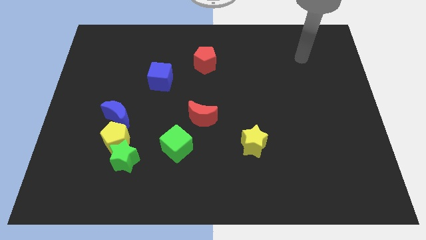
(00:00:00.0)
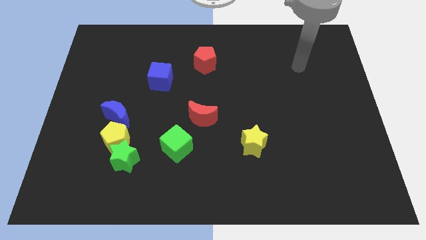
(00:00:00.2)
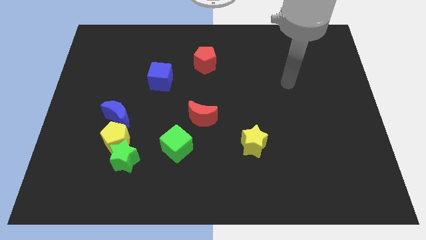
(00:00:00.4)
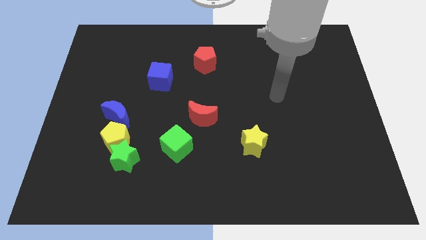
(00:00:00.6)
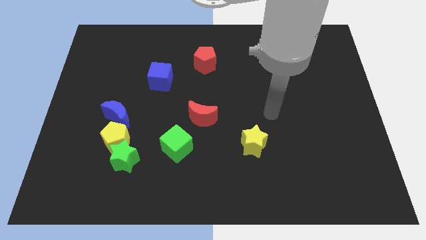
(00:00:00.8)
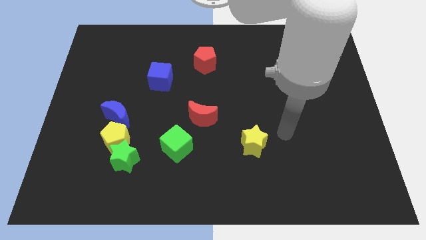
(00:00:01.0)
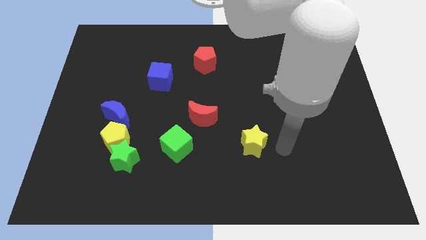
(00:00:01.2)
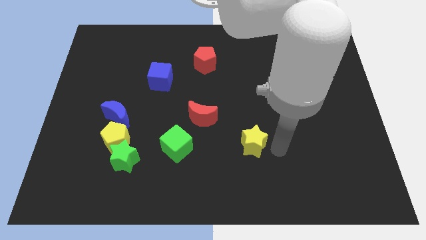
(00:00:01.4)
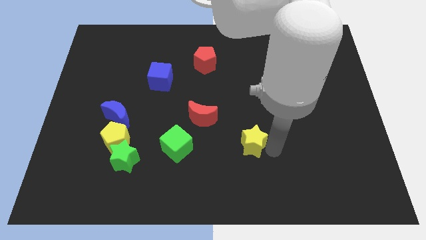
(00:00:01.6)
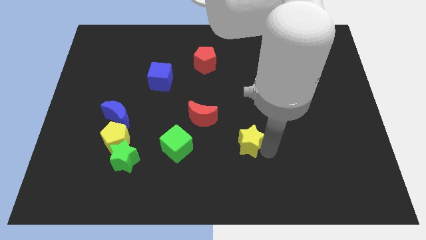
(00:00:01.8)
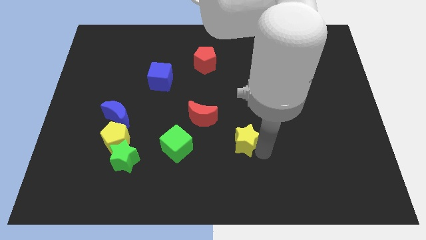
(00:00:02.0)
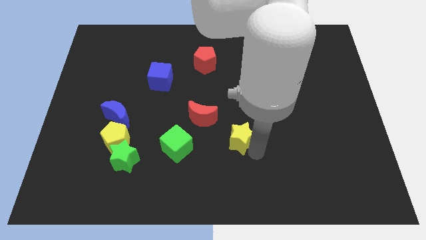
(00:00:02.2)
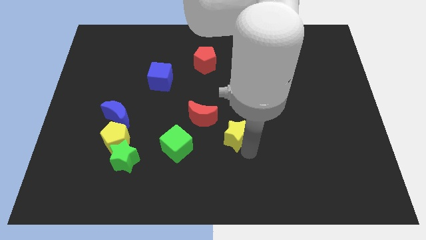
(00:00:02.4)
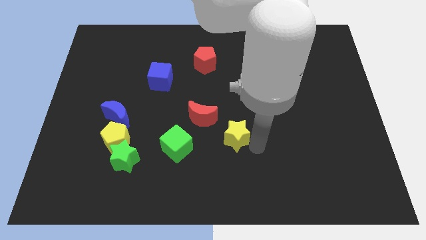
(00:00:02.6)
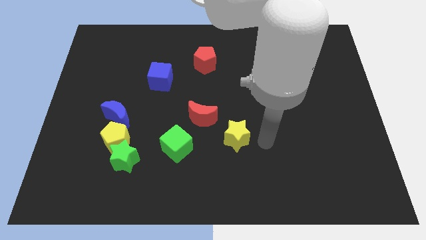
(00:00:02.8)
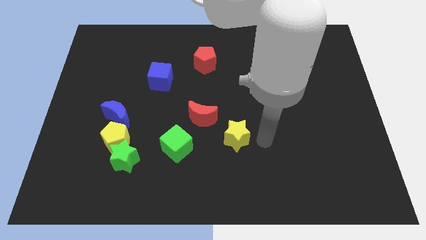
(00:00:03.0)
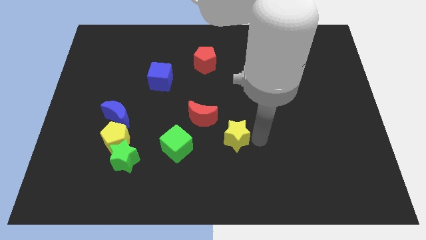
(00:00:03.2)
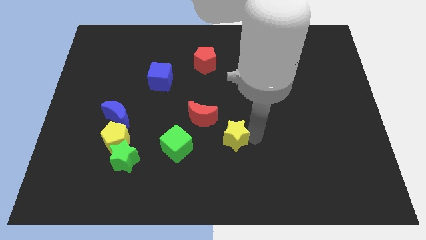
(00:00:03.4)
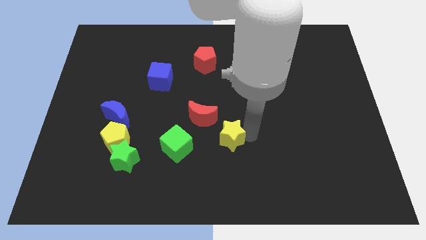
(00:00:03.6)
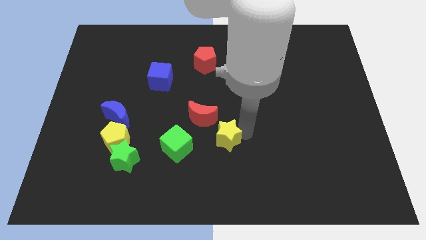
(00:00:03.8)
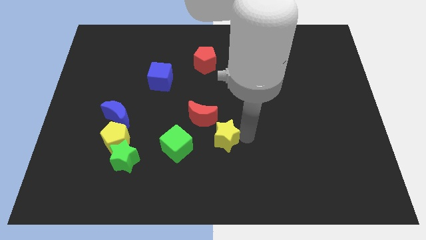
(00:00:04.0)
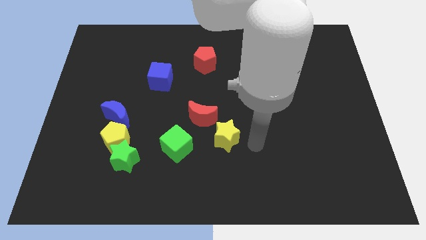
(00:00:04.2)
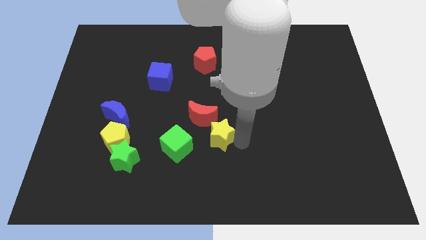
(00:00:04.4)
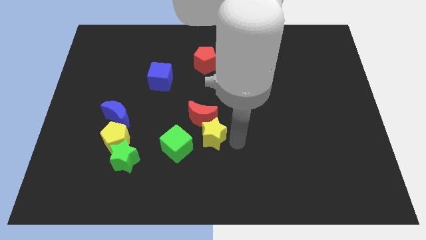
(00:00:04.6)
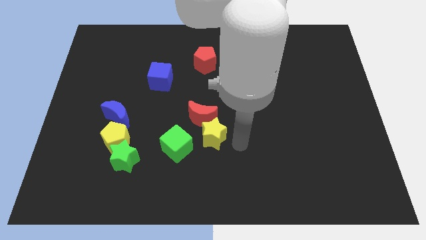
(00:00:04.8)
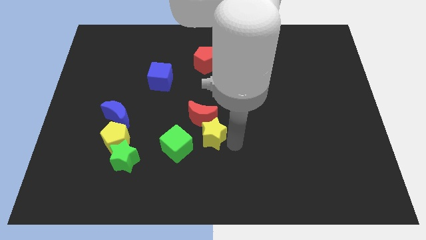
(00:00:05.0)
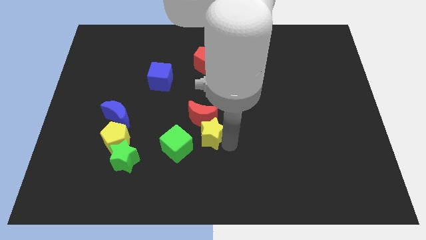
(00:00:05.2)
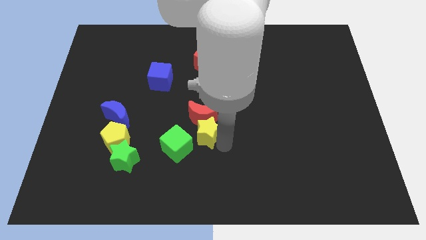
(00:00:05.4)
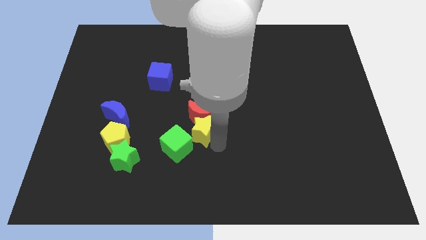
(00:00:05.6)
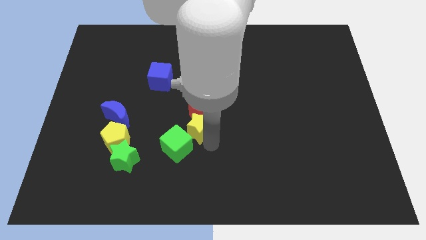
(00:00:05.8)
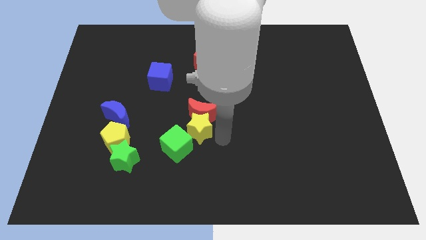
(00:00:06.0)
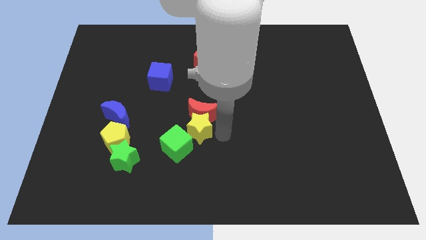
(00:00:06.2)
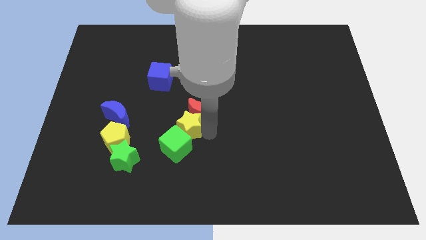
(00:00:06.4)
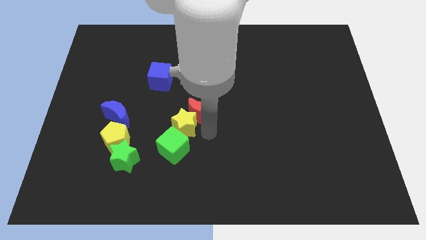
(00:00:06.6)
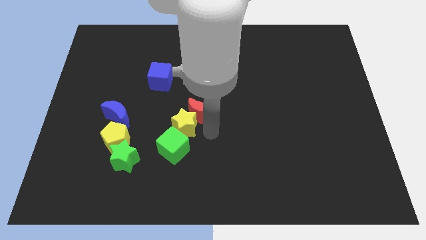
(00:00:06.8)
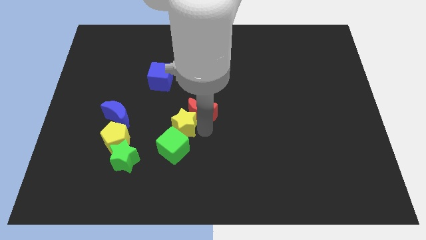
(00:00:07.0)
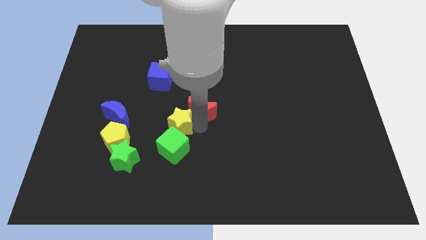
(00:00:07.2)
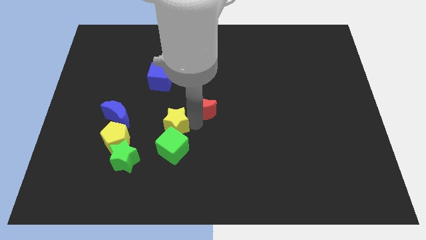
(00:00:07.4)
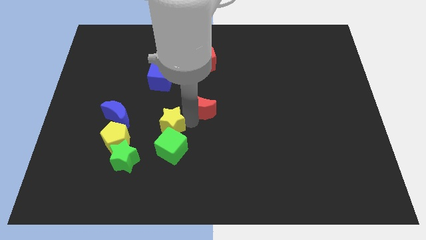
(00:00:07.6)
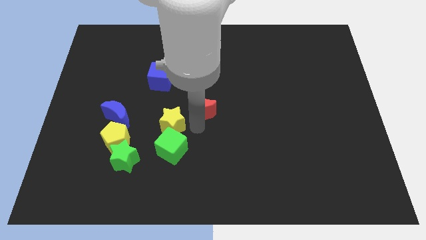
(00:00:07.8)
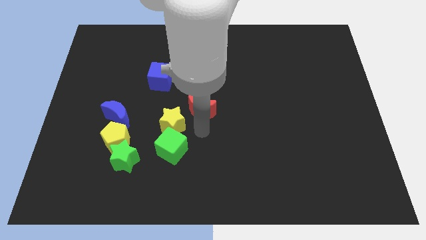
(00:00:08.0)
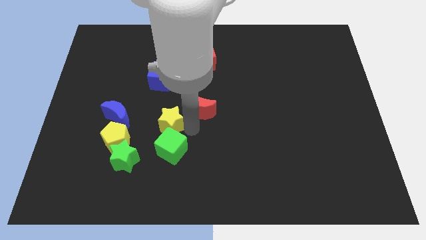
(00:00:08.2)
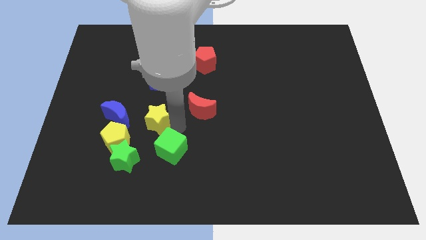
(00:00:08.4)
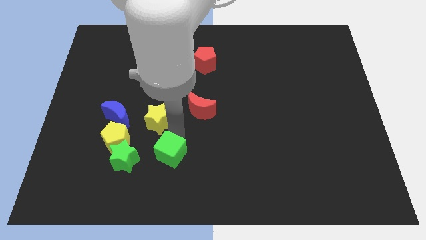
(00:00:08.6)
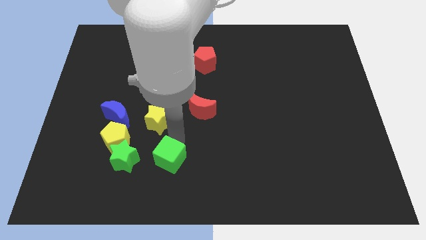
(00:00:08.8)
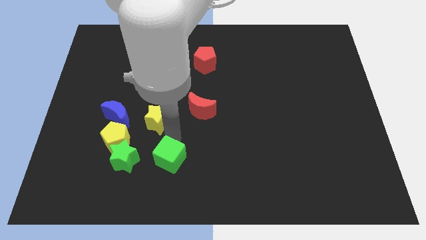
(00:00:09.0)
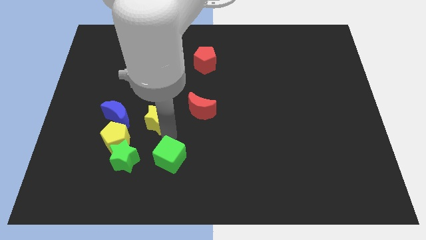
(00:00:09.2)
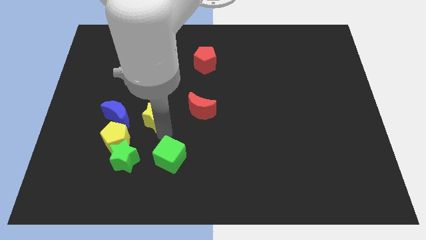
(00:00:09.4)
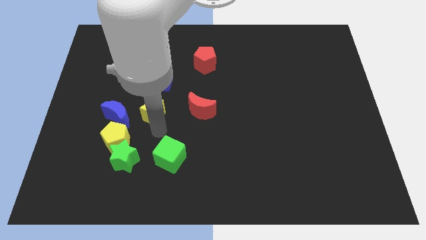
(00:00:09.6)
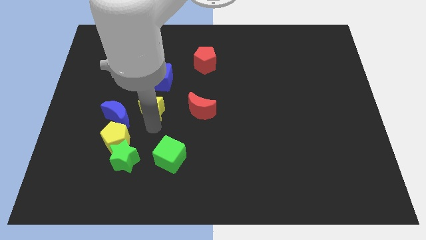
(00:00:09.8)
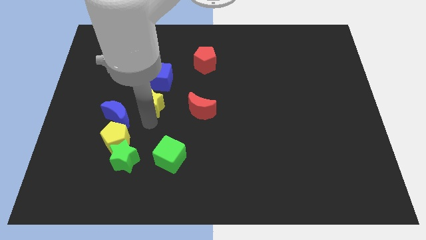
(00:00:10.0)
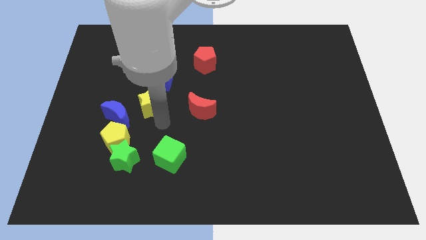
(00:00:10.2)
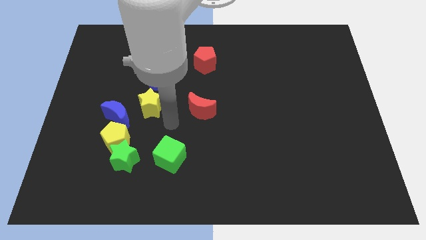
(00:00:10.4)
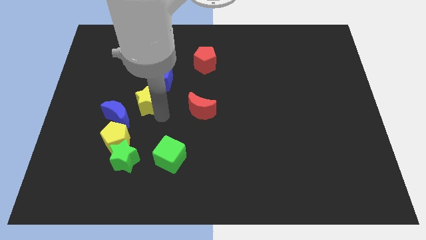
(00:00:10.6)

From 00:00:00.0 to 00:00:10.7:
move the yellow star diagonally down and to the left of the blue cube

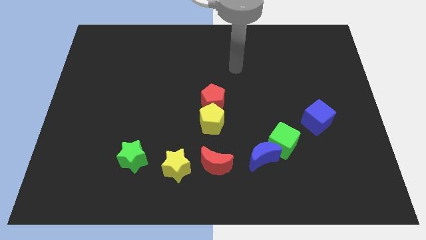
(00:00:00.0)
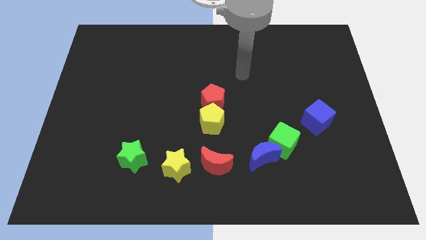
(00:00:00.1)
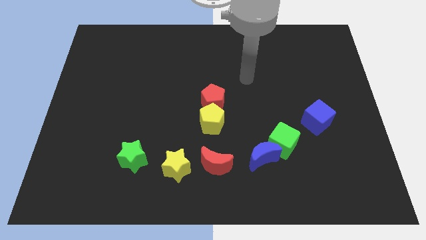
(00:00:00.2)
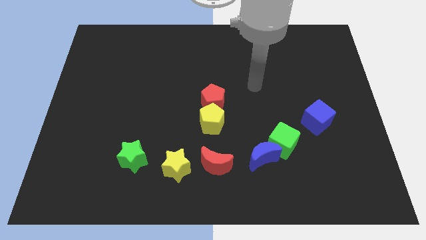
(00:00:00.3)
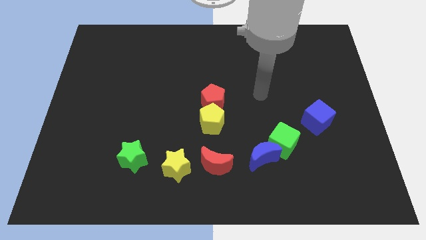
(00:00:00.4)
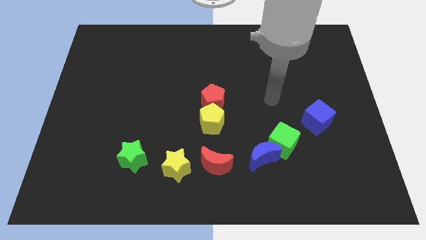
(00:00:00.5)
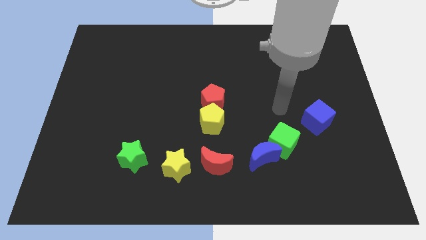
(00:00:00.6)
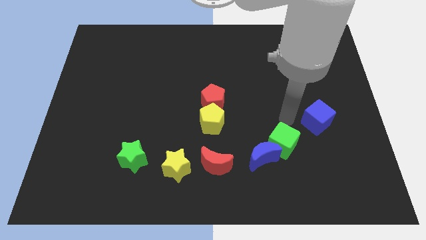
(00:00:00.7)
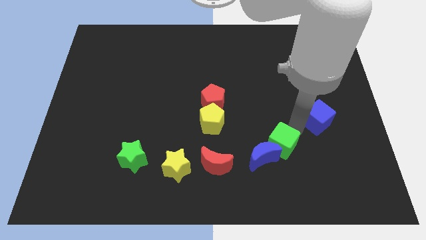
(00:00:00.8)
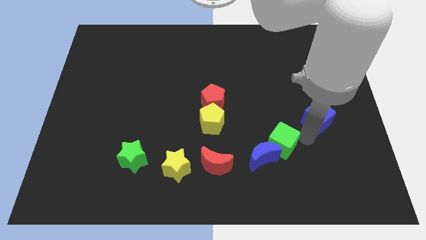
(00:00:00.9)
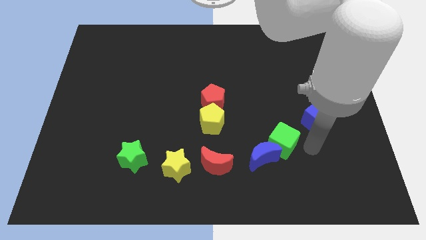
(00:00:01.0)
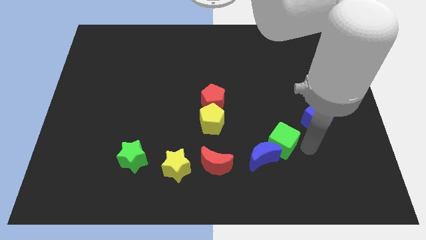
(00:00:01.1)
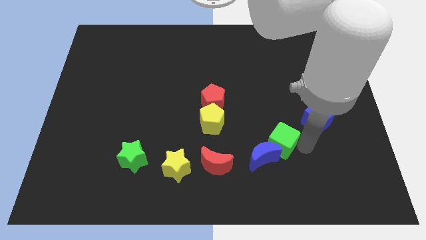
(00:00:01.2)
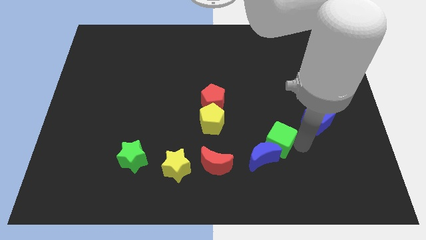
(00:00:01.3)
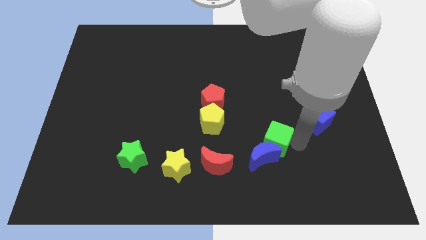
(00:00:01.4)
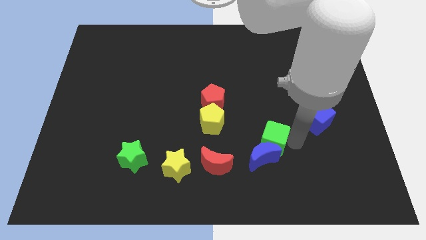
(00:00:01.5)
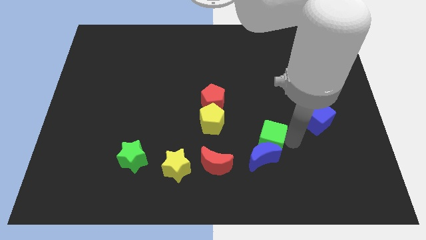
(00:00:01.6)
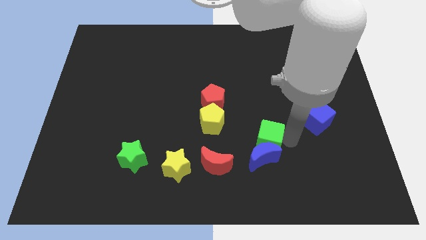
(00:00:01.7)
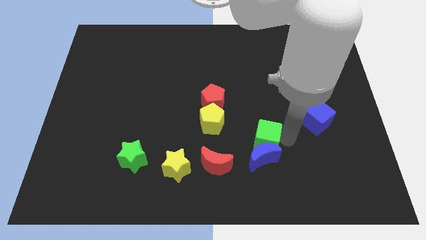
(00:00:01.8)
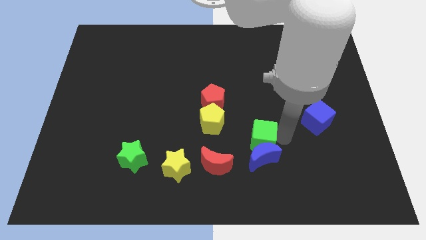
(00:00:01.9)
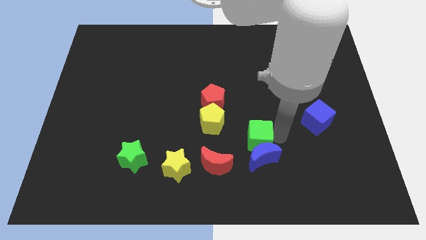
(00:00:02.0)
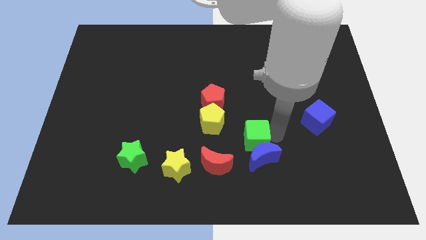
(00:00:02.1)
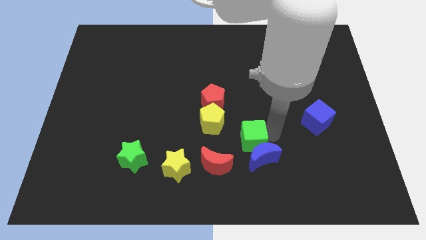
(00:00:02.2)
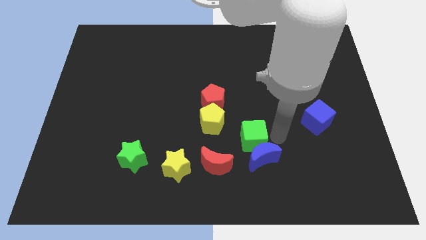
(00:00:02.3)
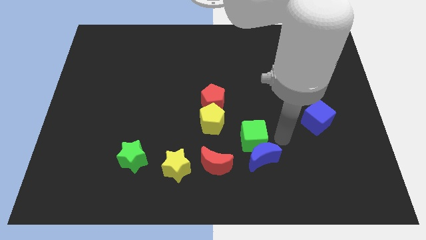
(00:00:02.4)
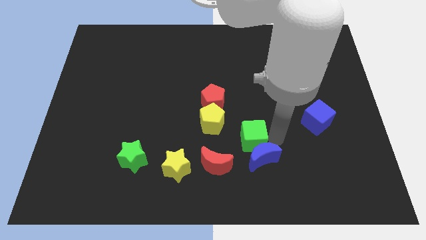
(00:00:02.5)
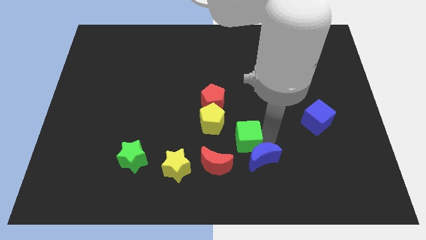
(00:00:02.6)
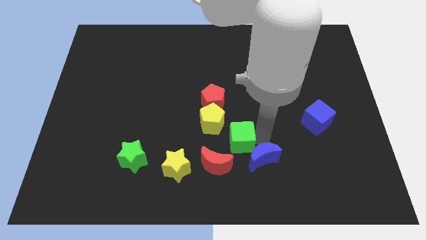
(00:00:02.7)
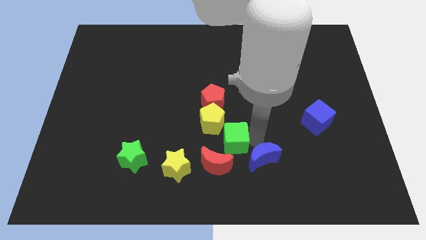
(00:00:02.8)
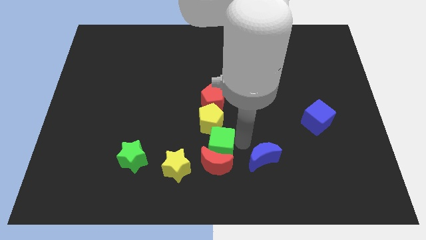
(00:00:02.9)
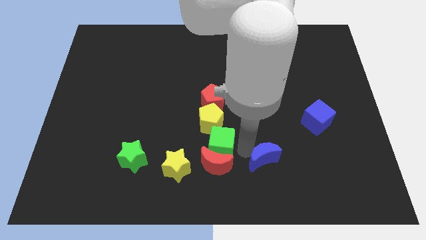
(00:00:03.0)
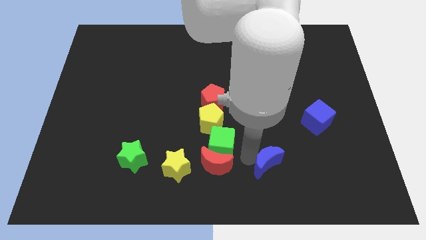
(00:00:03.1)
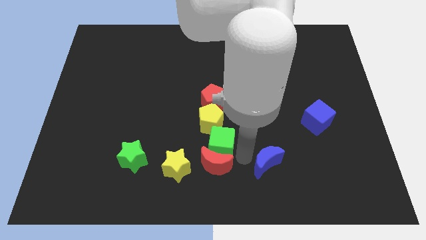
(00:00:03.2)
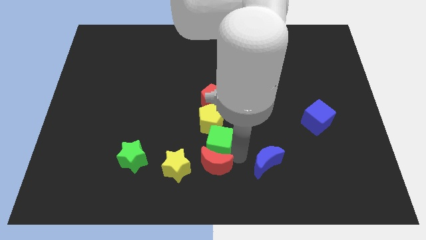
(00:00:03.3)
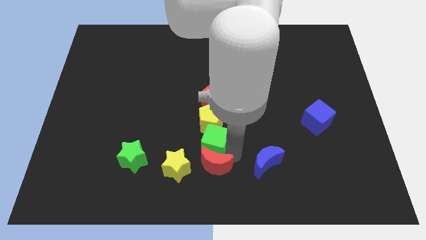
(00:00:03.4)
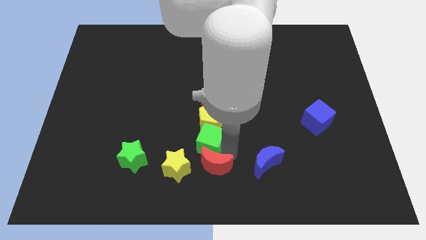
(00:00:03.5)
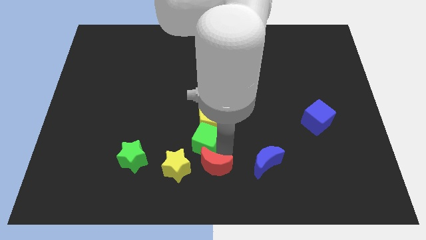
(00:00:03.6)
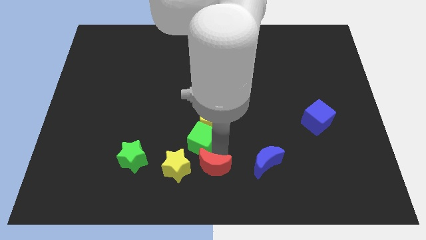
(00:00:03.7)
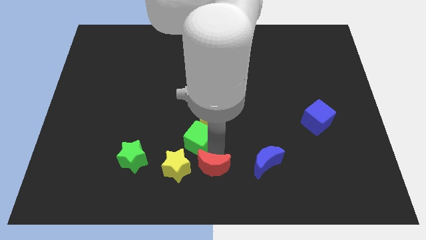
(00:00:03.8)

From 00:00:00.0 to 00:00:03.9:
move the green cube to the top side of the yellow star
